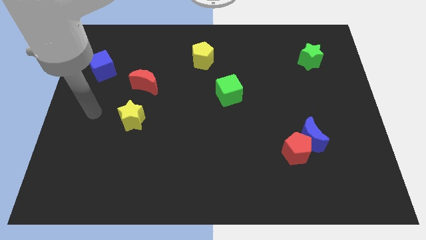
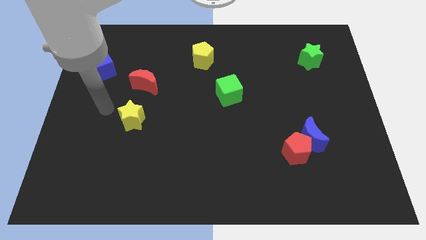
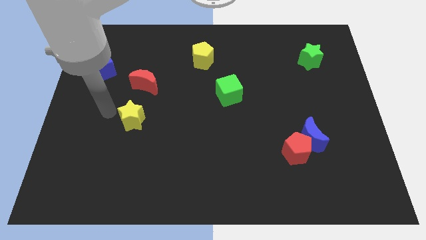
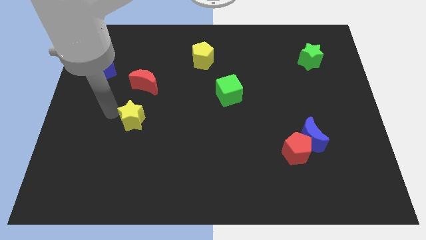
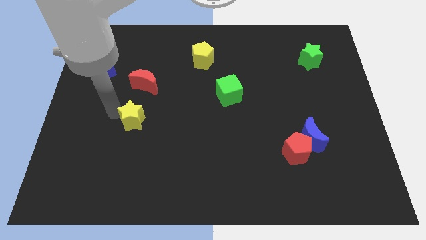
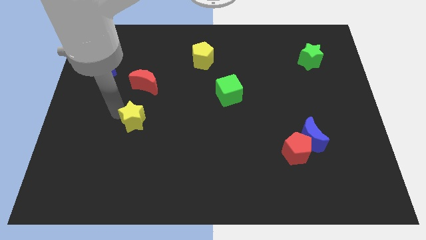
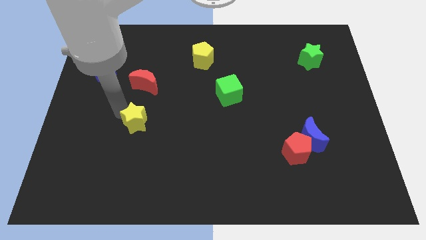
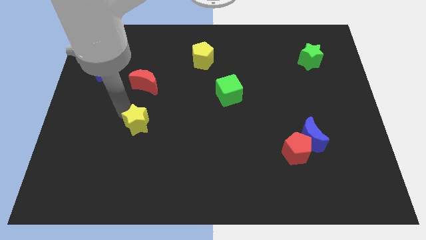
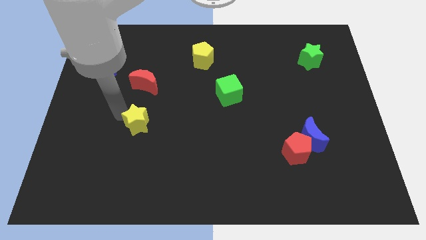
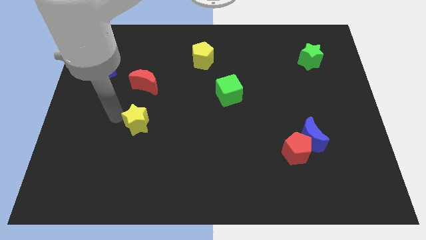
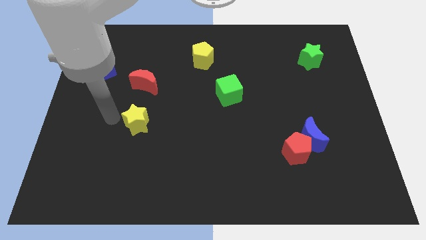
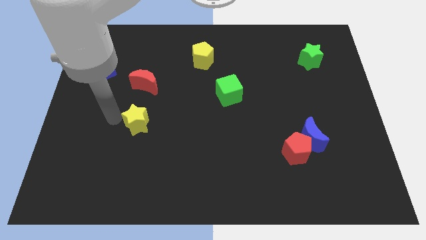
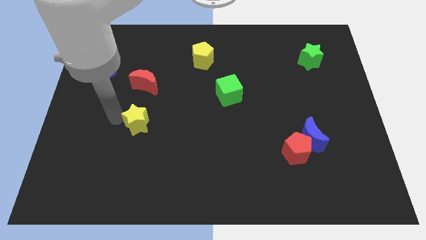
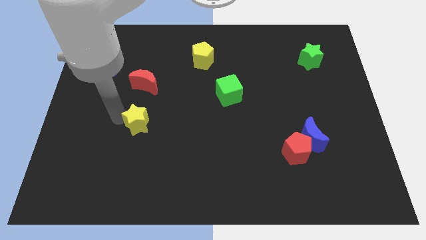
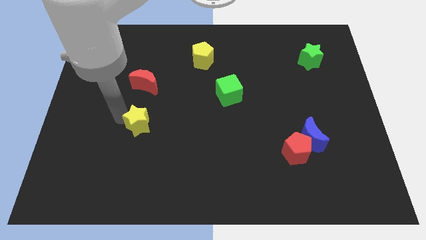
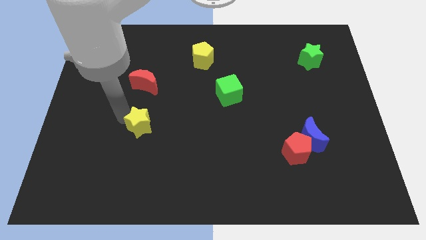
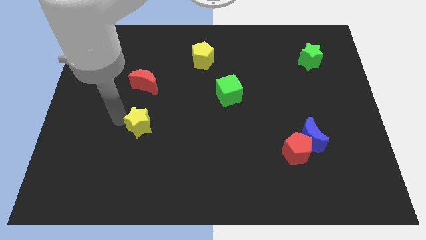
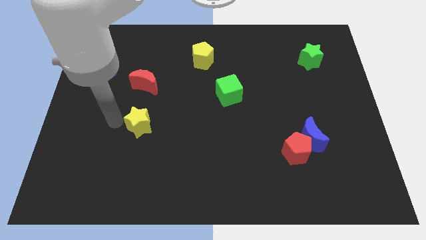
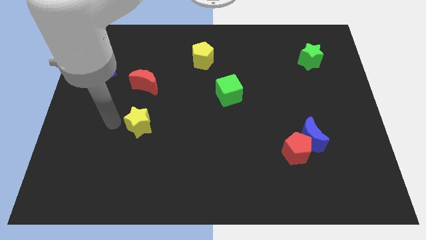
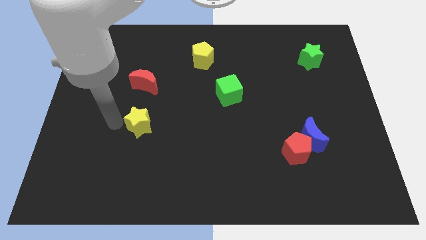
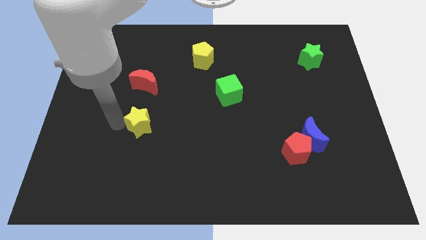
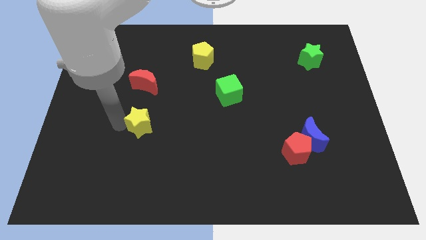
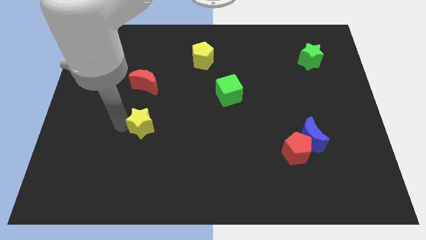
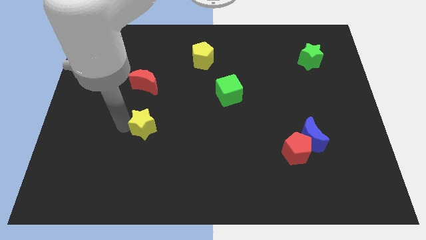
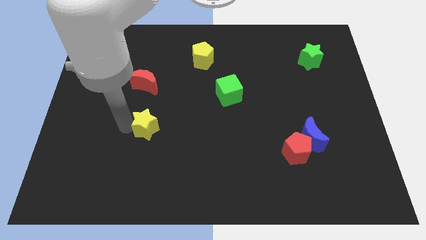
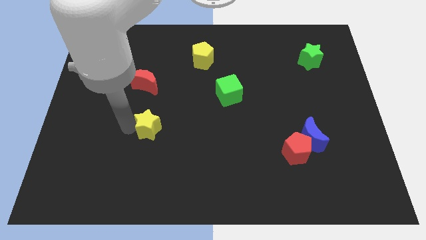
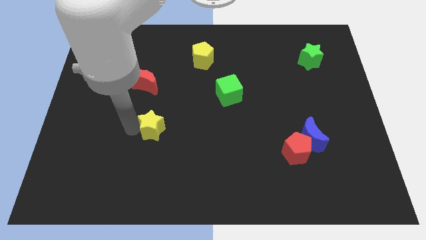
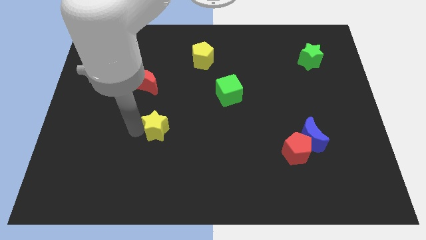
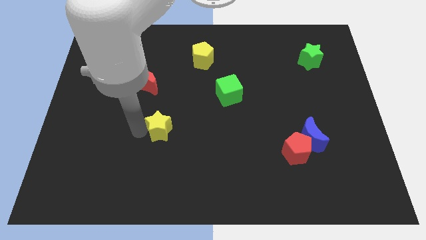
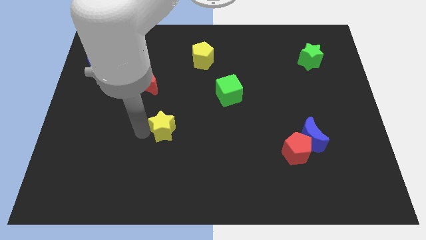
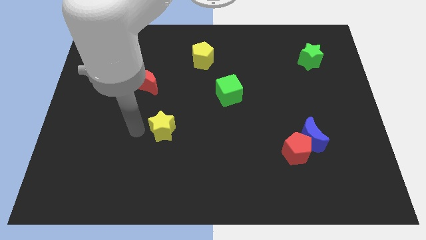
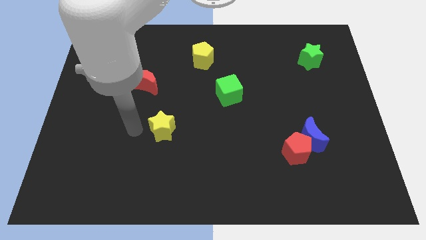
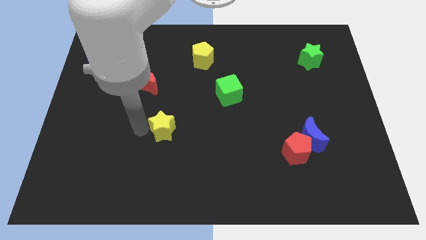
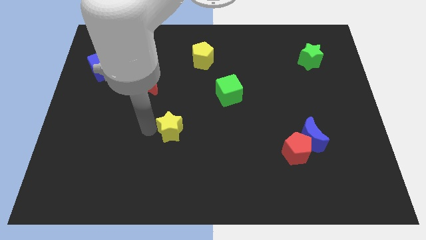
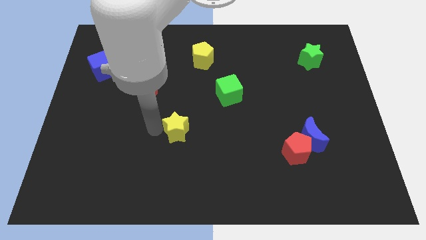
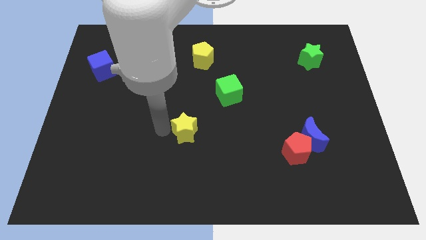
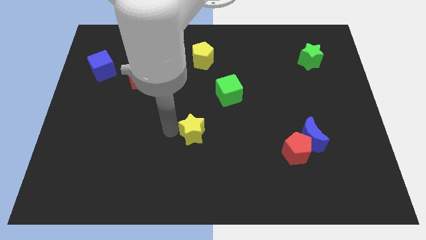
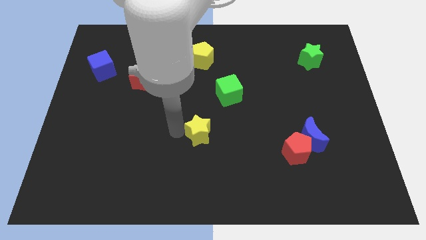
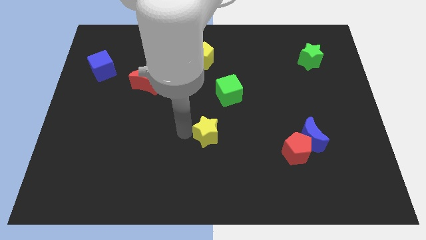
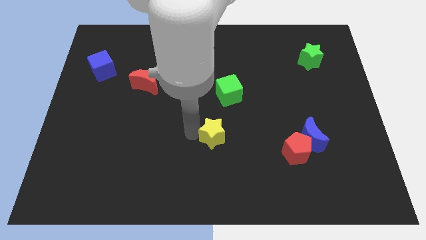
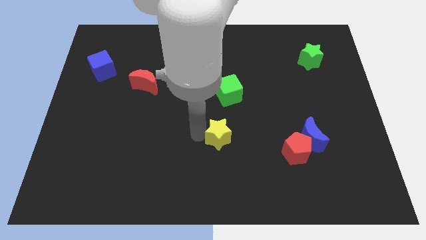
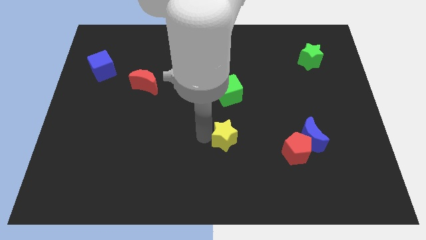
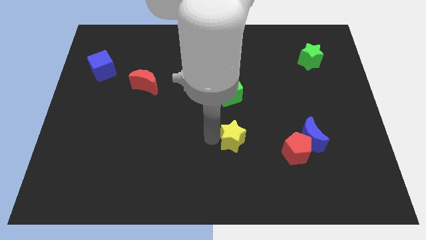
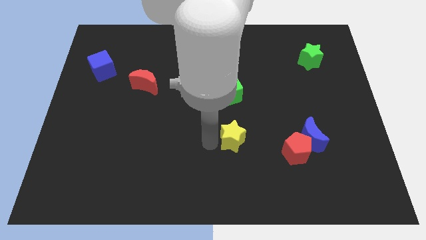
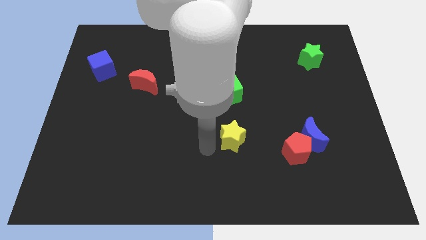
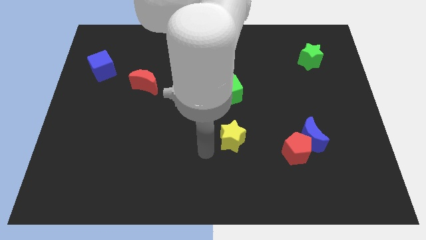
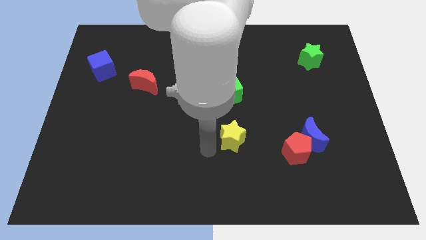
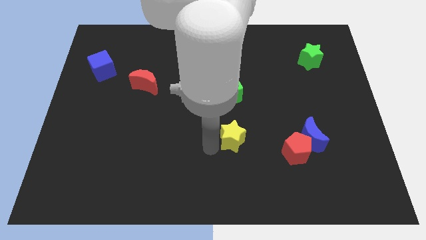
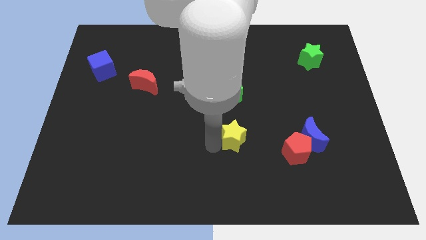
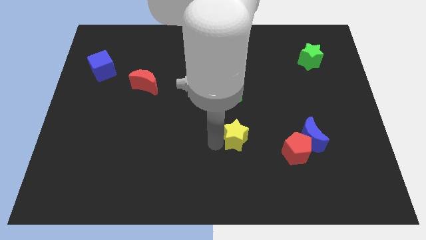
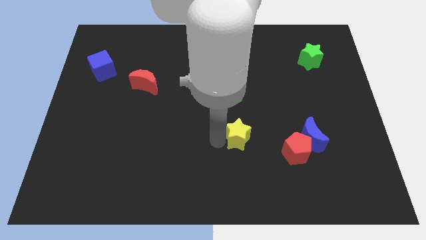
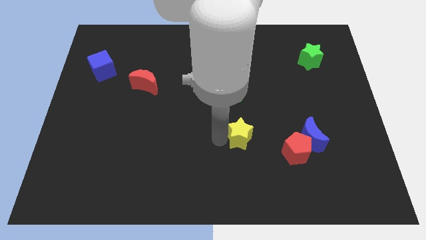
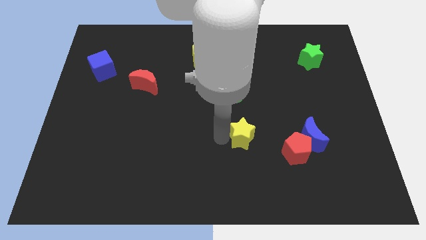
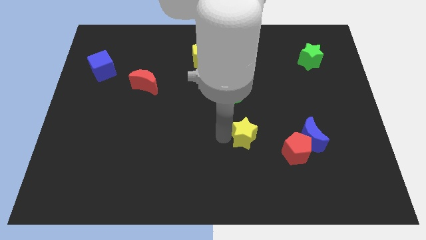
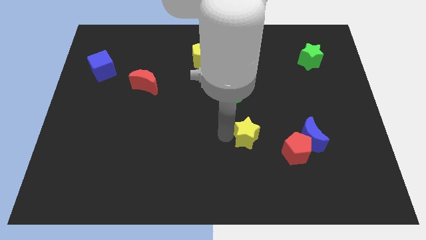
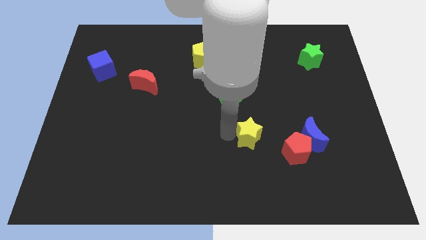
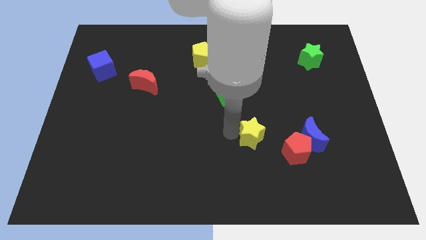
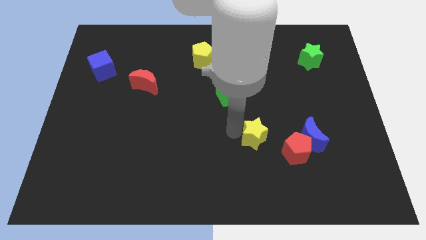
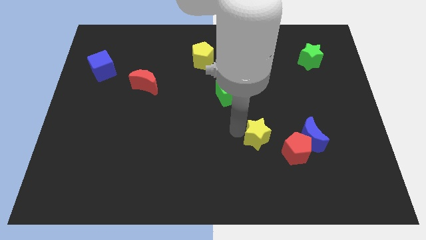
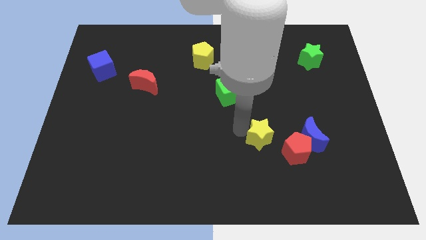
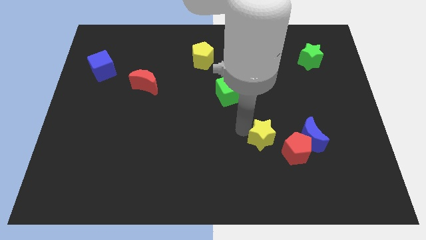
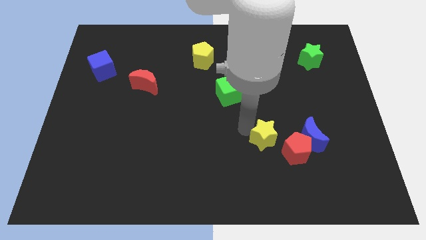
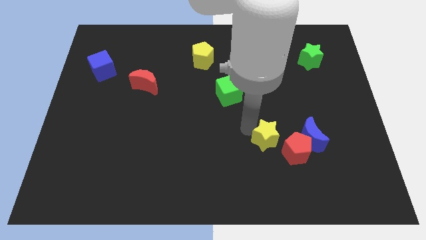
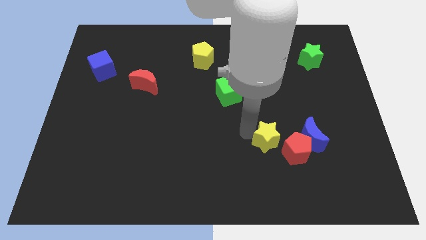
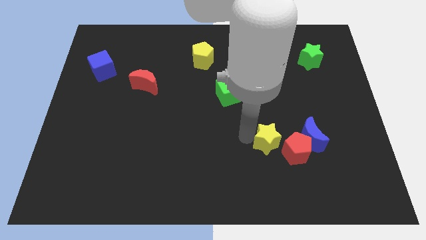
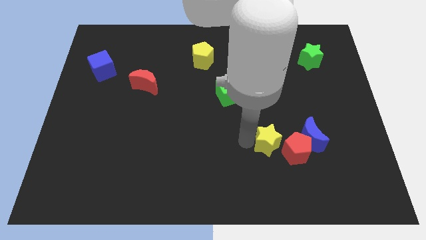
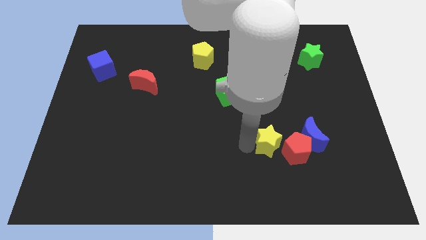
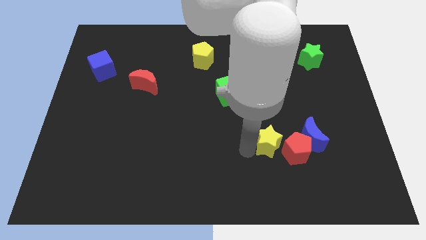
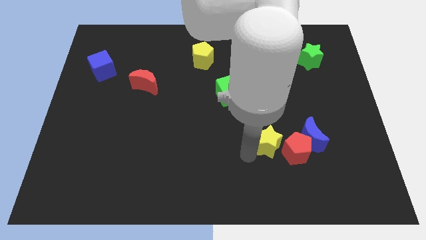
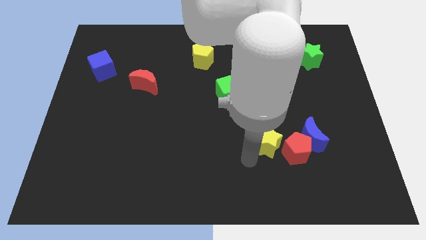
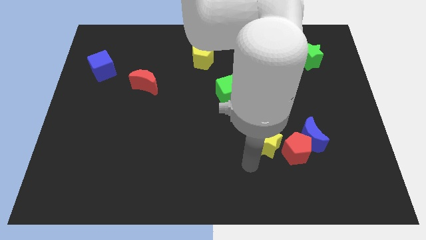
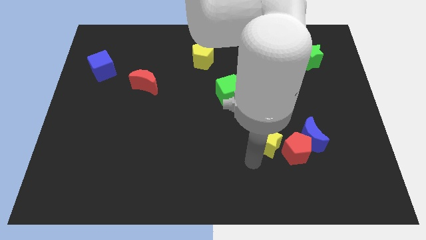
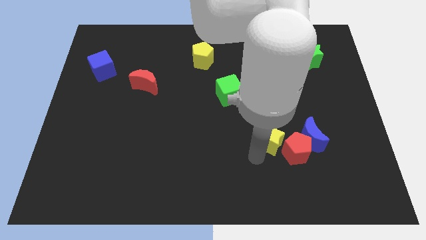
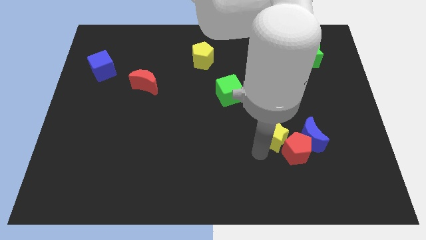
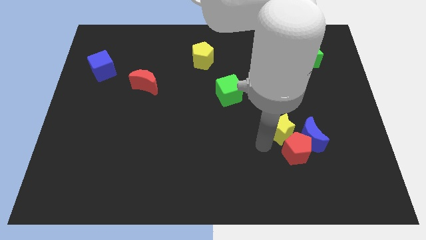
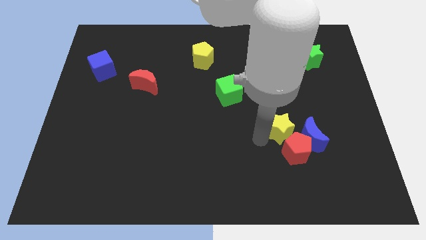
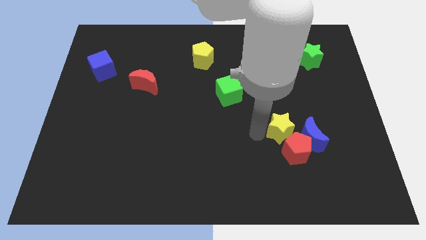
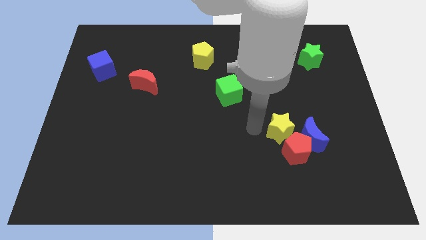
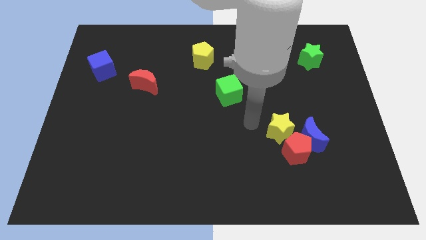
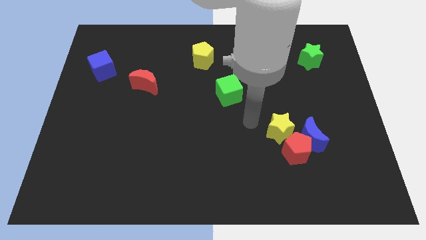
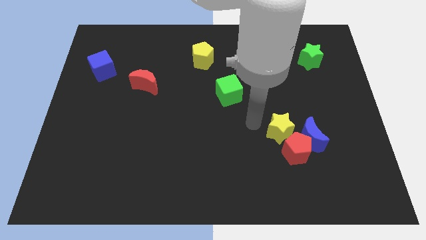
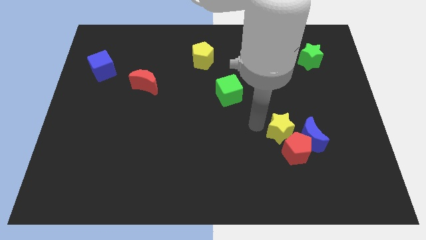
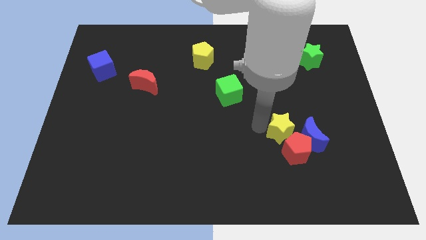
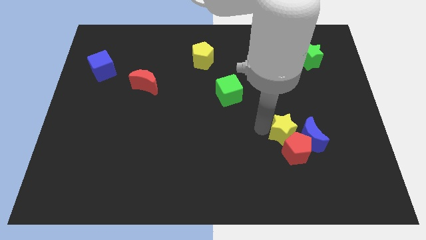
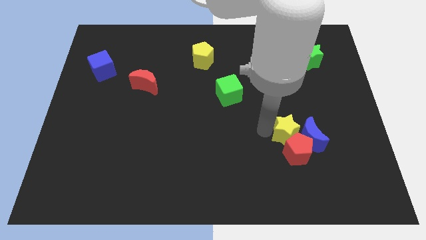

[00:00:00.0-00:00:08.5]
put the yellow star towards the blue moon
